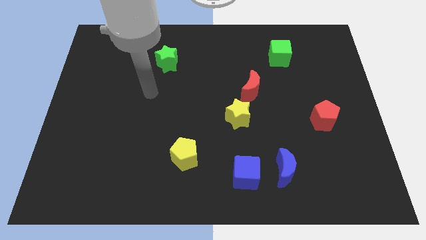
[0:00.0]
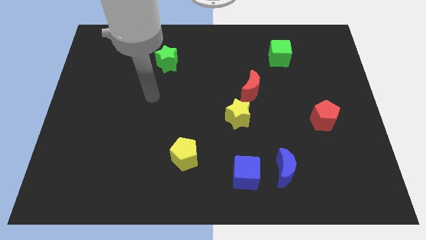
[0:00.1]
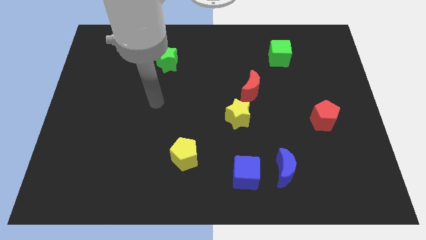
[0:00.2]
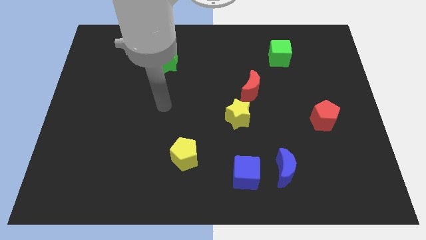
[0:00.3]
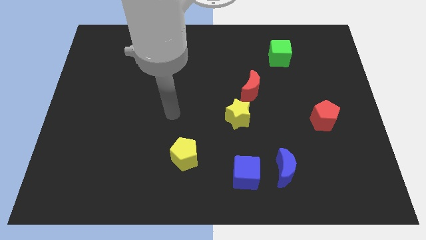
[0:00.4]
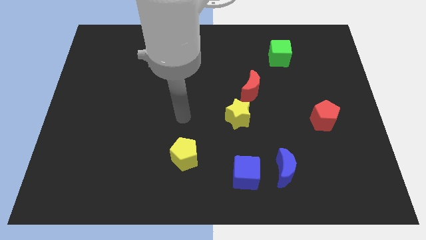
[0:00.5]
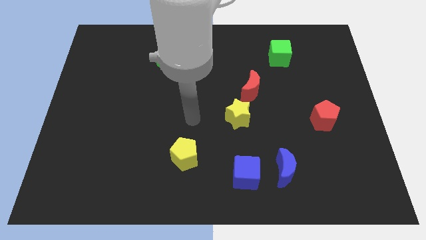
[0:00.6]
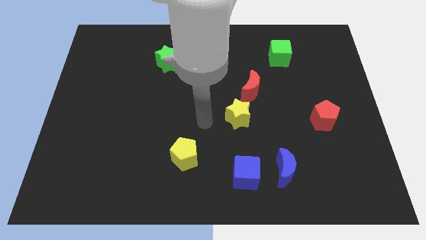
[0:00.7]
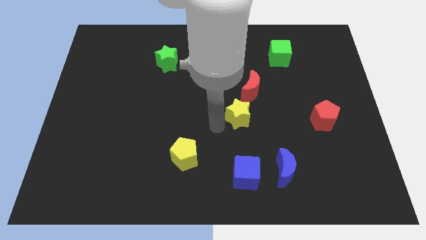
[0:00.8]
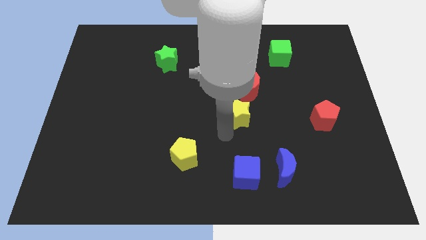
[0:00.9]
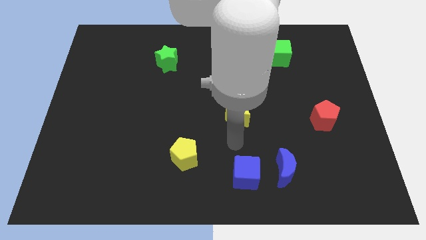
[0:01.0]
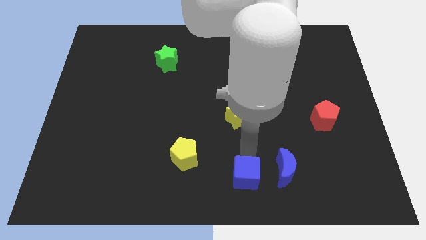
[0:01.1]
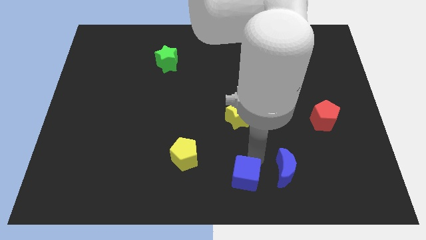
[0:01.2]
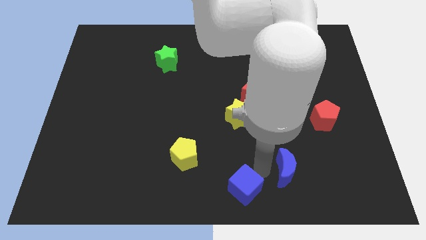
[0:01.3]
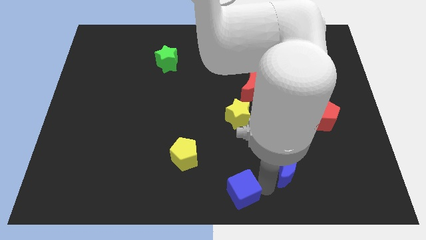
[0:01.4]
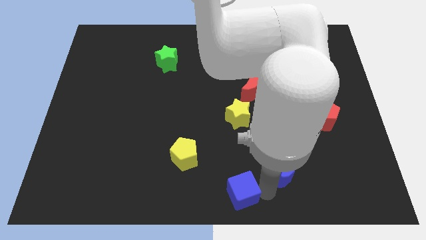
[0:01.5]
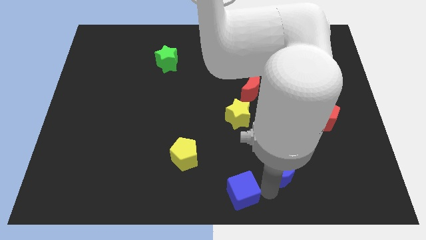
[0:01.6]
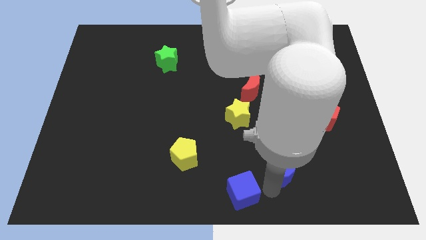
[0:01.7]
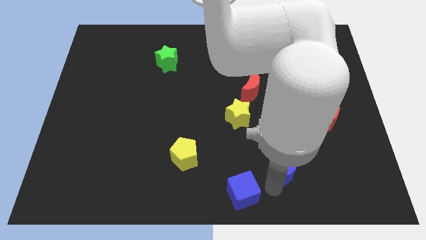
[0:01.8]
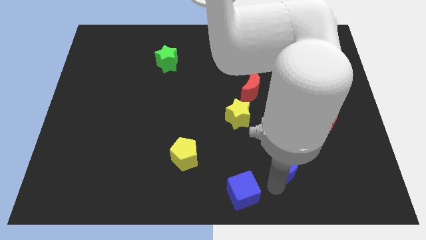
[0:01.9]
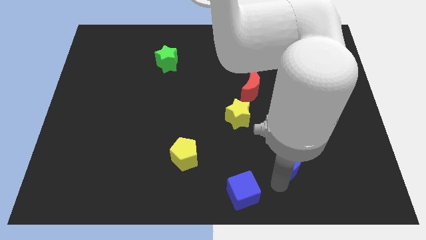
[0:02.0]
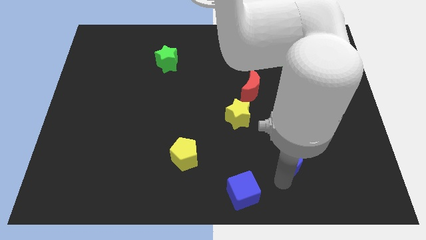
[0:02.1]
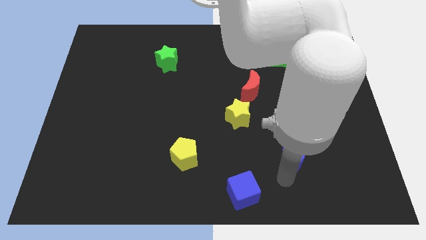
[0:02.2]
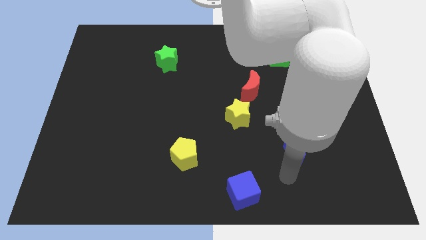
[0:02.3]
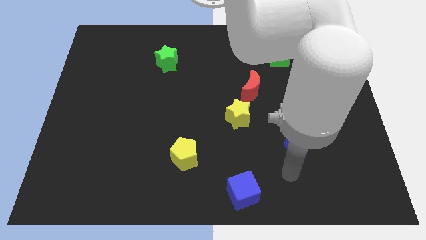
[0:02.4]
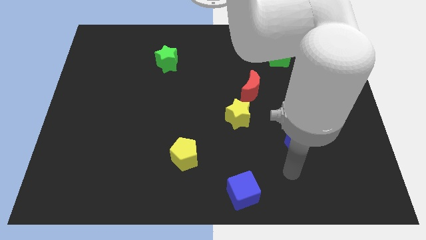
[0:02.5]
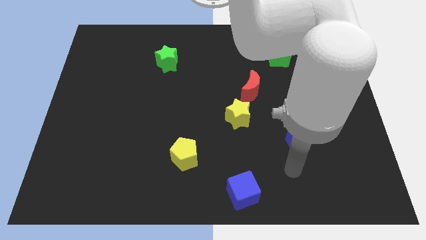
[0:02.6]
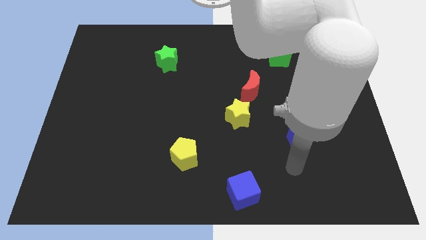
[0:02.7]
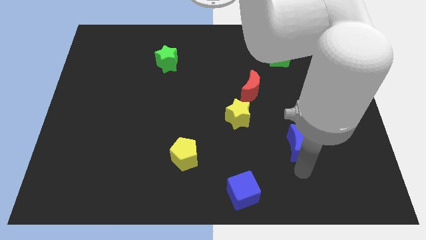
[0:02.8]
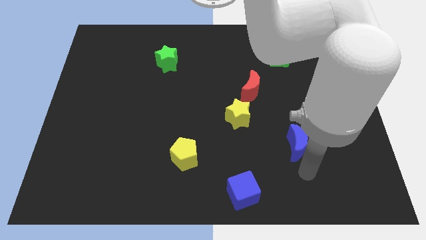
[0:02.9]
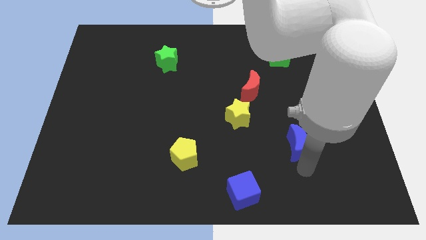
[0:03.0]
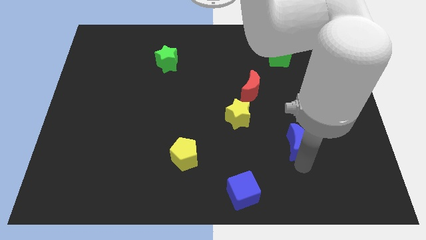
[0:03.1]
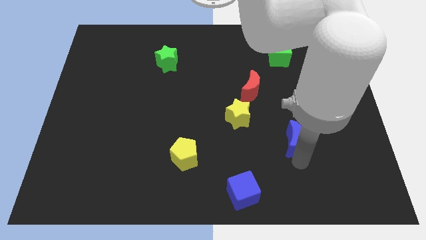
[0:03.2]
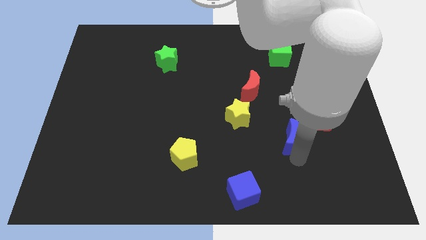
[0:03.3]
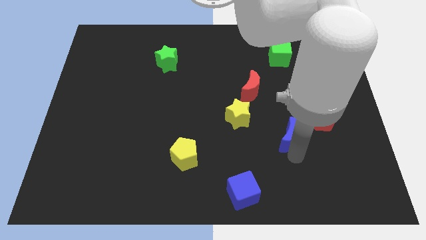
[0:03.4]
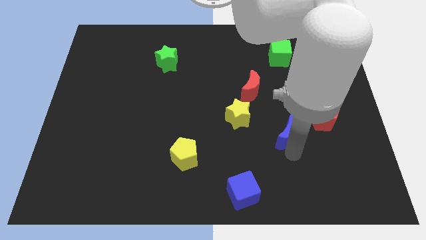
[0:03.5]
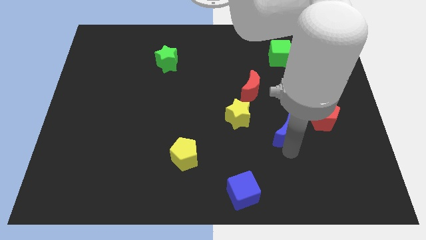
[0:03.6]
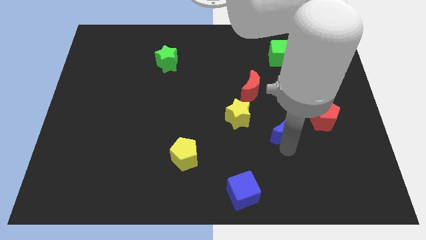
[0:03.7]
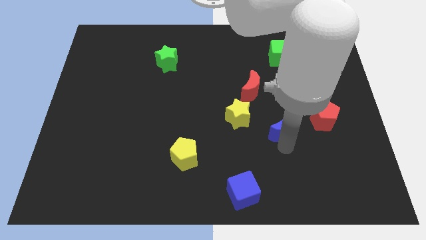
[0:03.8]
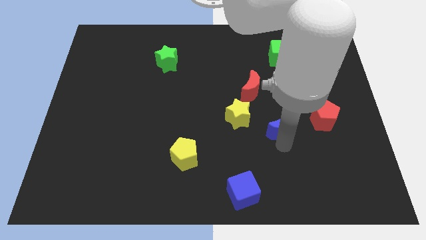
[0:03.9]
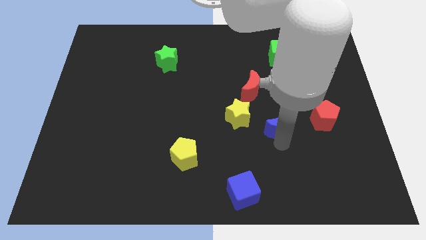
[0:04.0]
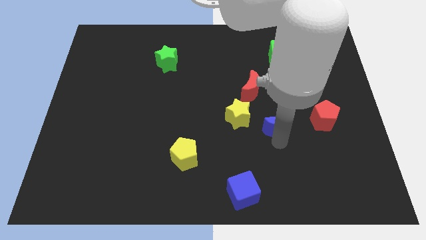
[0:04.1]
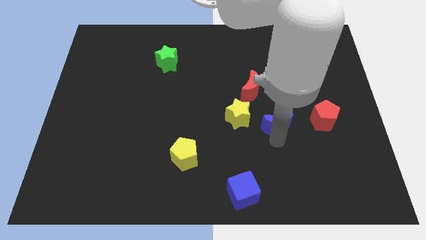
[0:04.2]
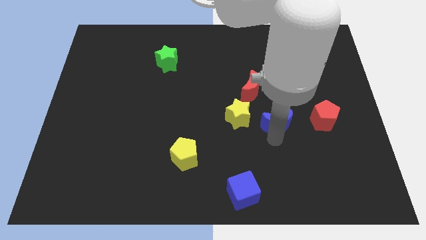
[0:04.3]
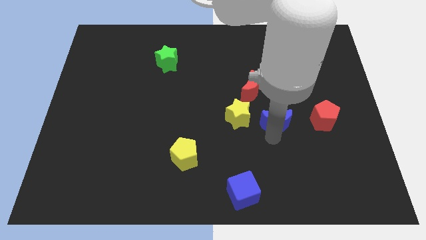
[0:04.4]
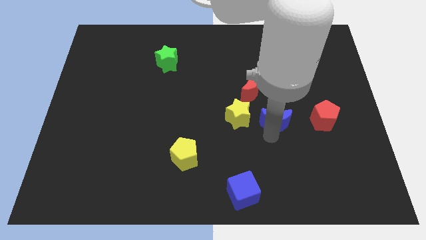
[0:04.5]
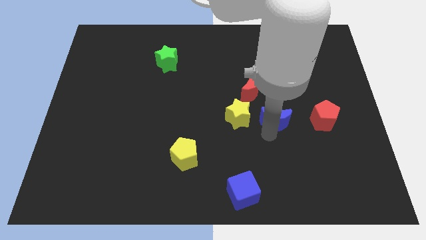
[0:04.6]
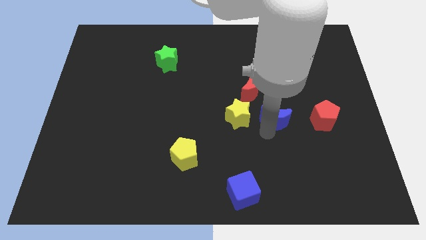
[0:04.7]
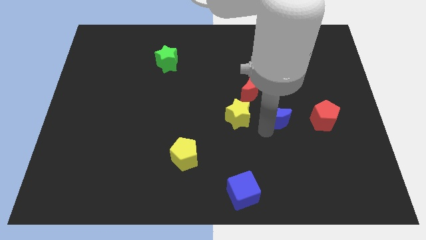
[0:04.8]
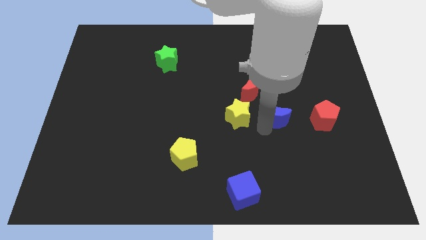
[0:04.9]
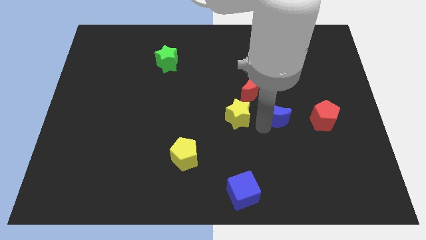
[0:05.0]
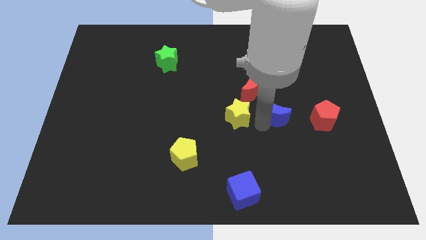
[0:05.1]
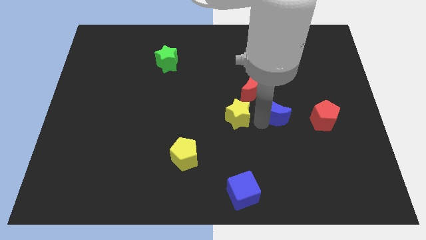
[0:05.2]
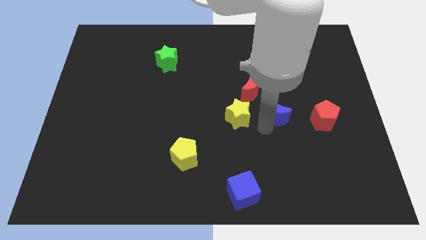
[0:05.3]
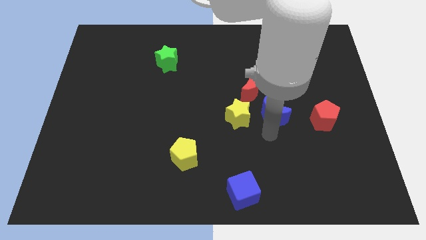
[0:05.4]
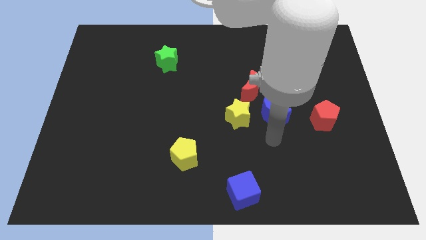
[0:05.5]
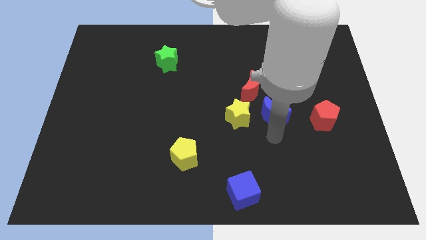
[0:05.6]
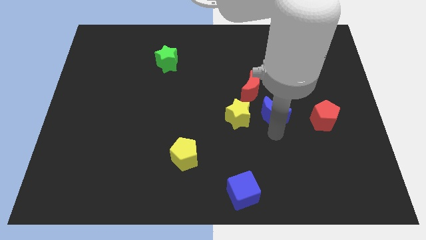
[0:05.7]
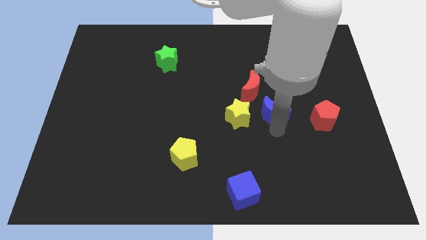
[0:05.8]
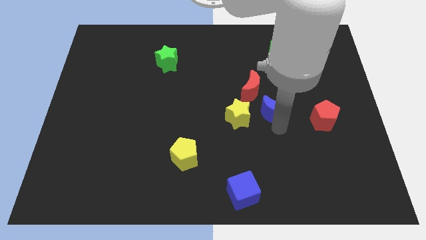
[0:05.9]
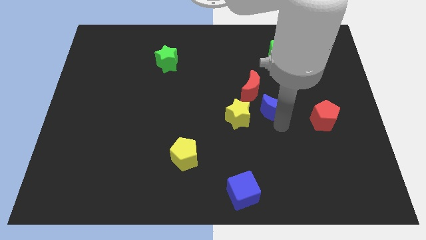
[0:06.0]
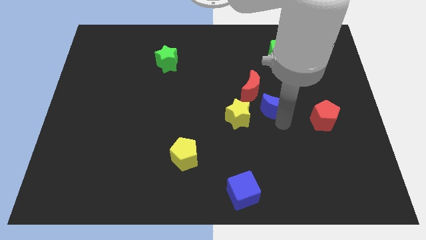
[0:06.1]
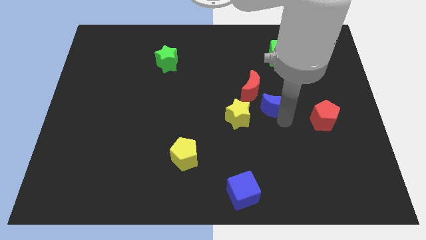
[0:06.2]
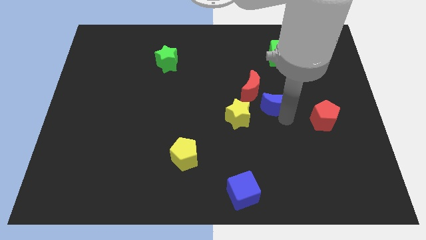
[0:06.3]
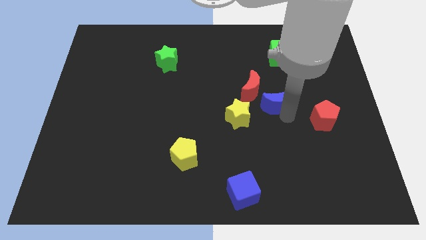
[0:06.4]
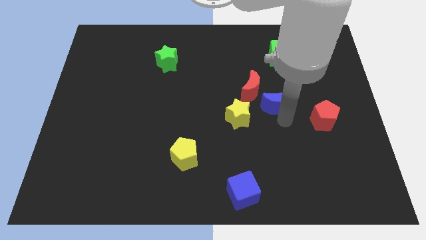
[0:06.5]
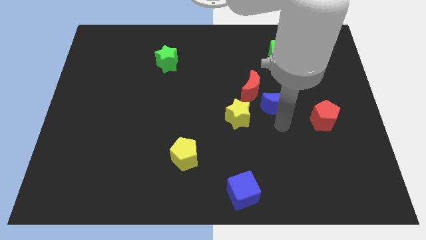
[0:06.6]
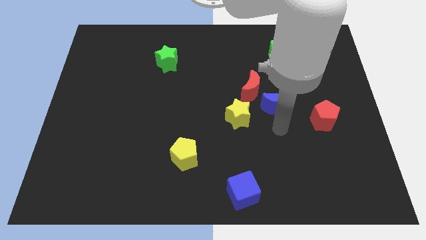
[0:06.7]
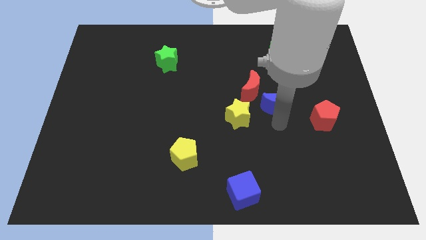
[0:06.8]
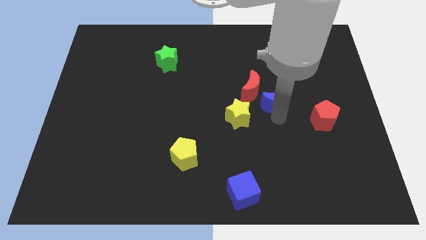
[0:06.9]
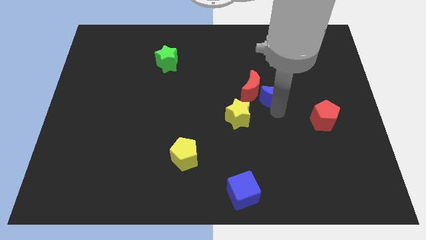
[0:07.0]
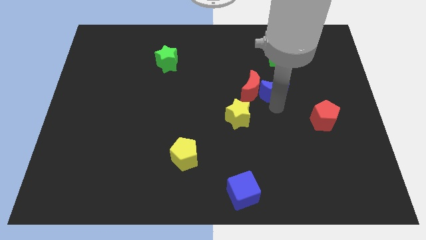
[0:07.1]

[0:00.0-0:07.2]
push the blue moon to the top right side of the red moon
